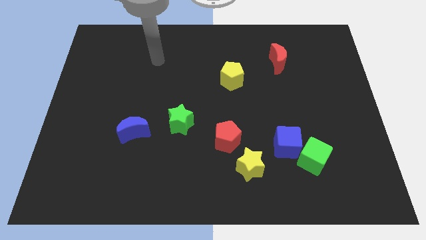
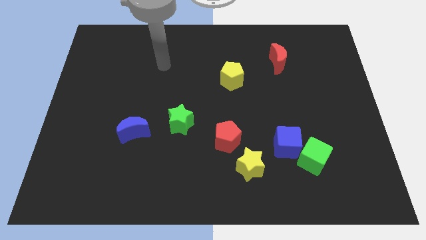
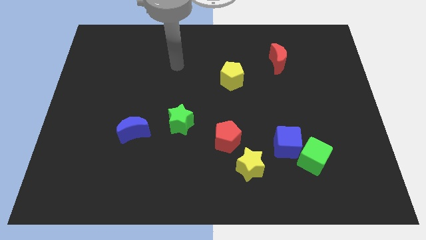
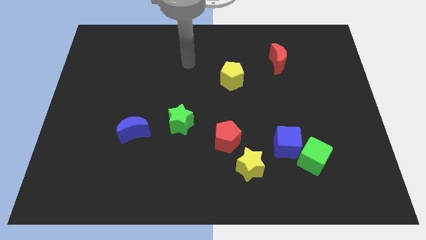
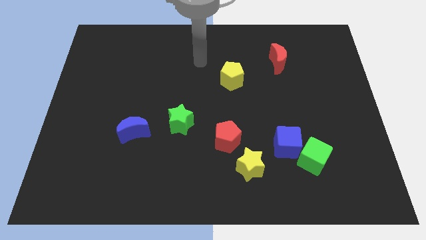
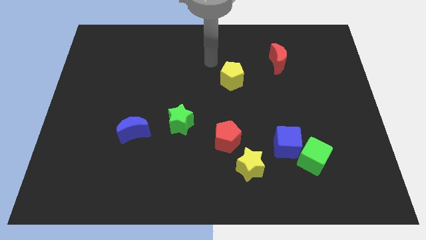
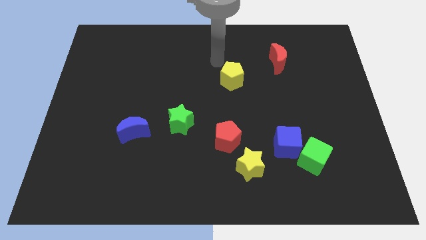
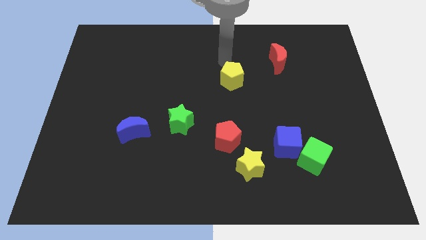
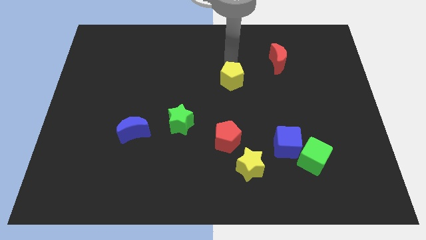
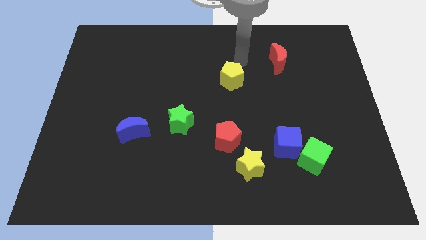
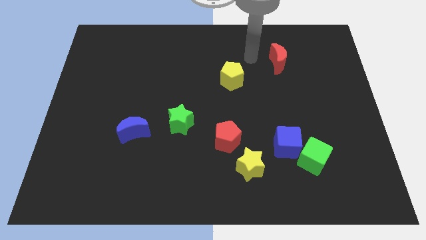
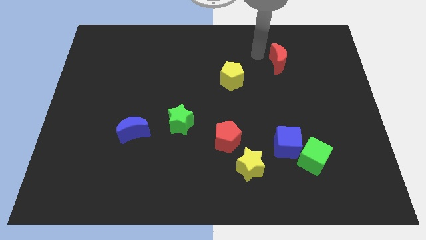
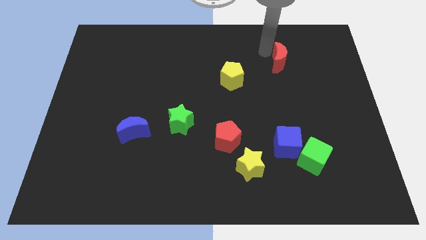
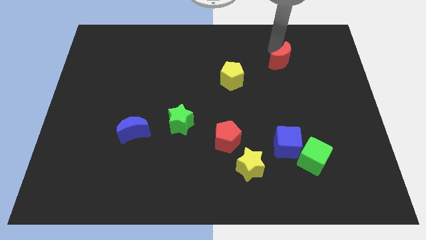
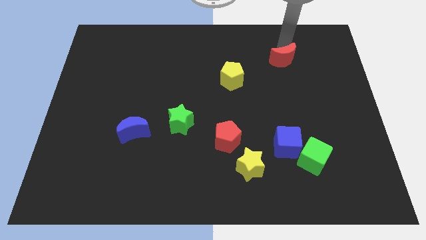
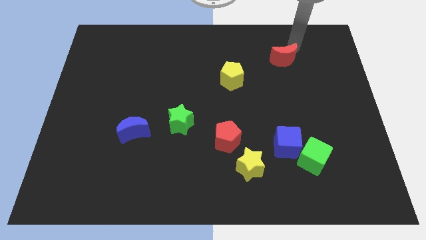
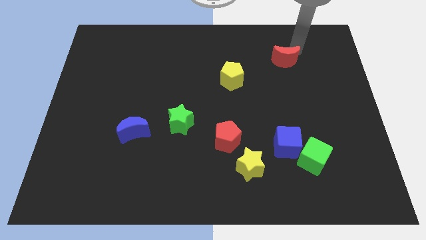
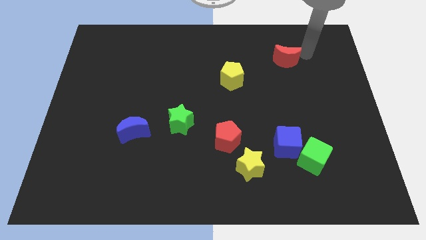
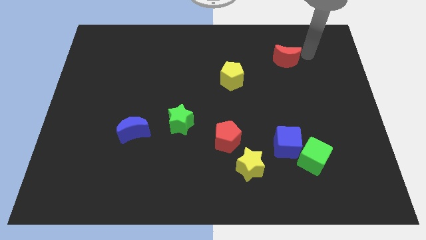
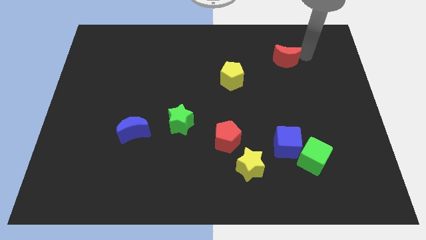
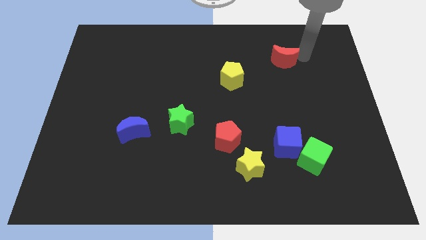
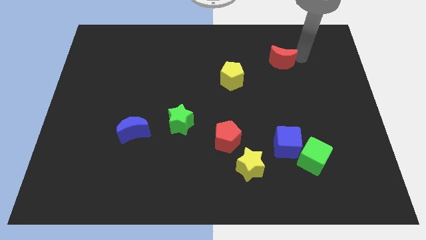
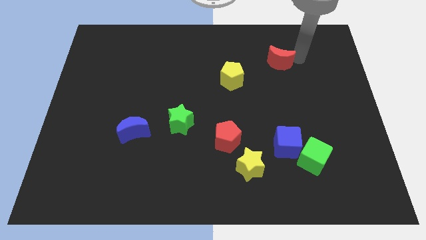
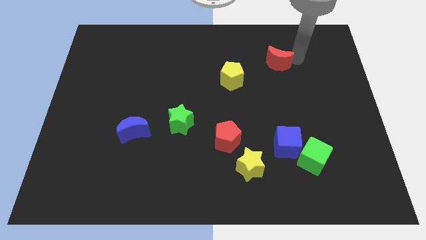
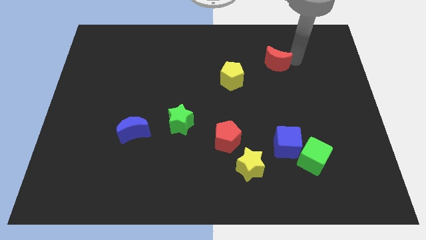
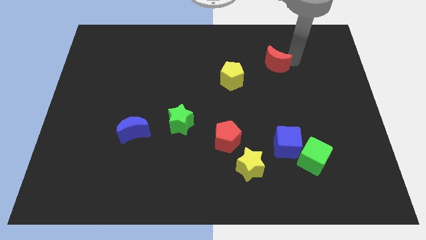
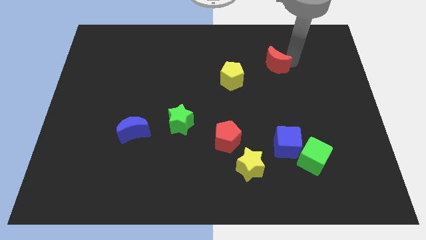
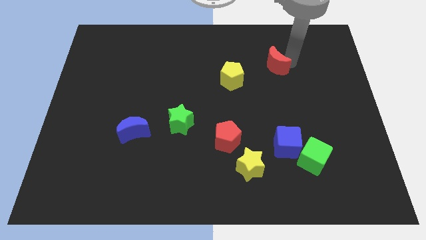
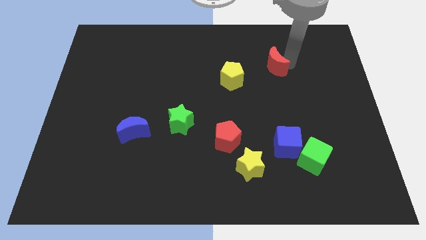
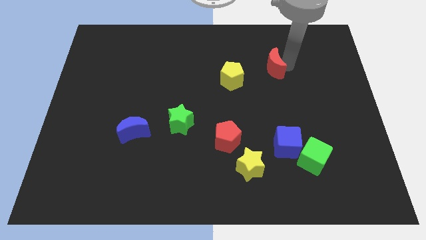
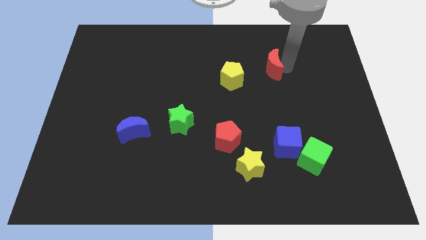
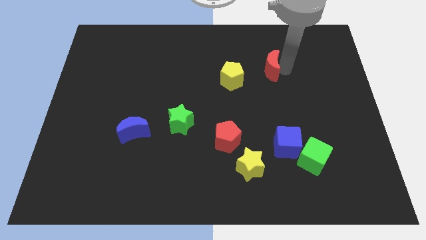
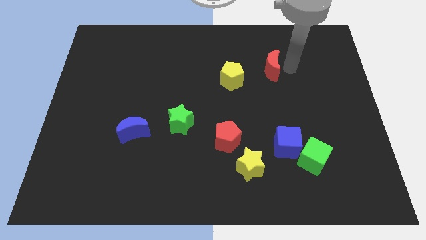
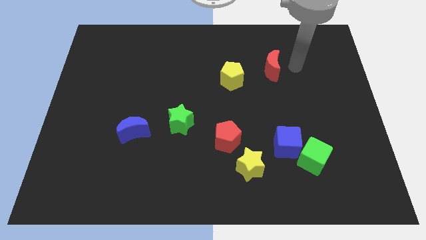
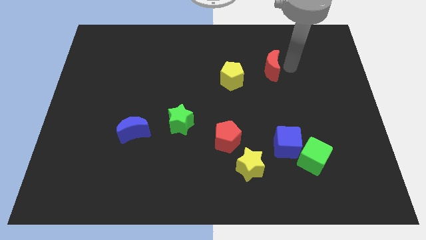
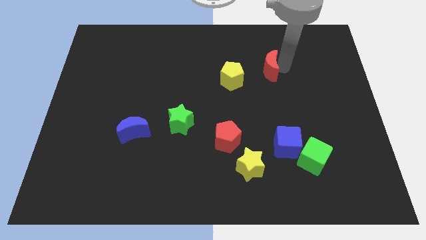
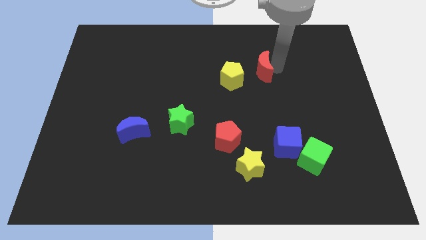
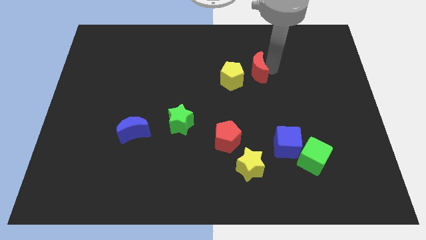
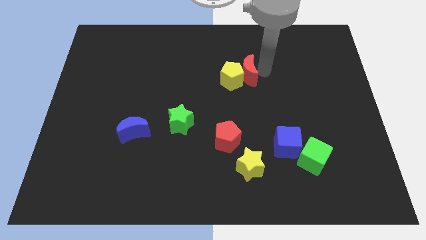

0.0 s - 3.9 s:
slightly push the red moon left

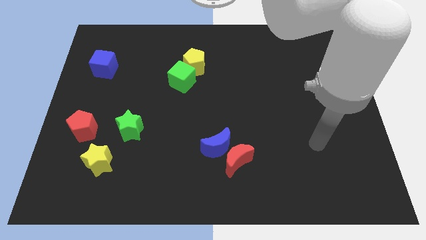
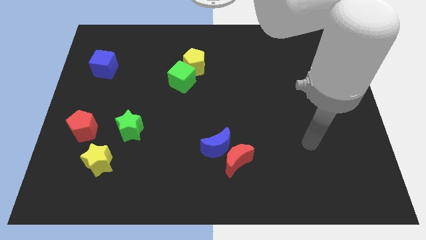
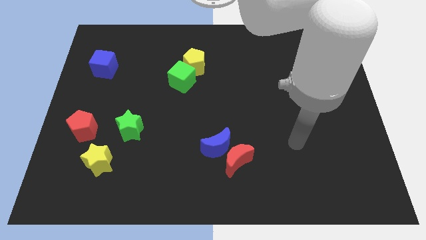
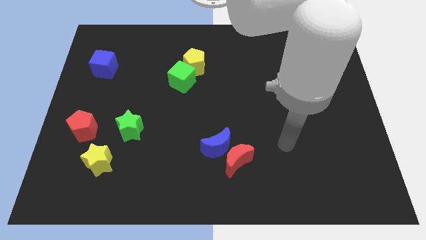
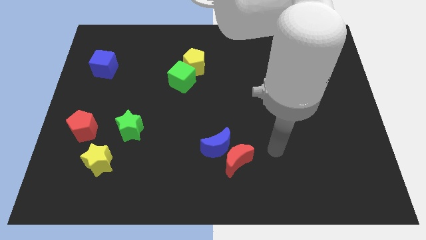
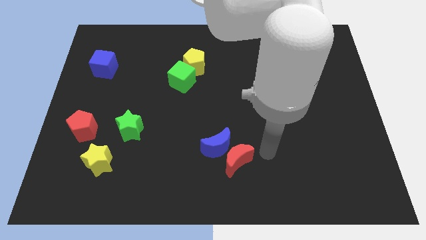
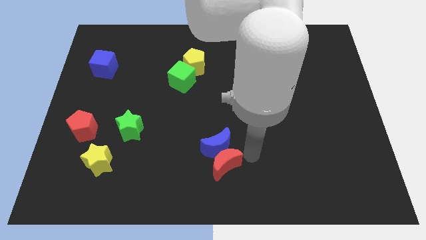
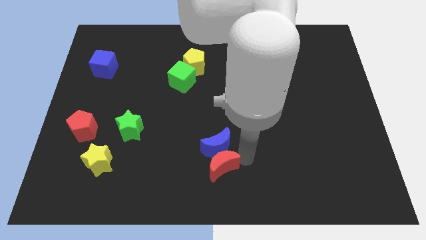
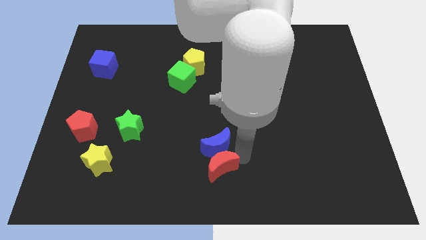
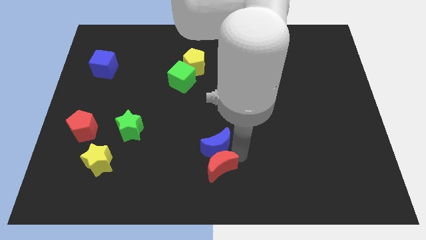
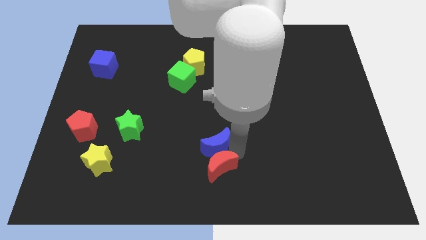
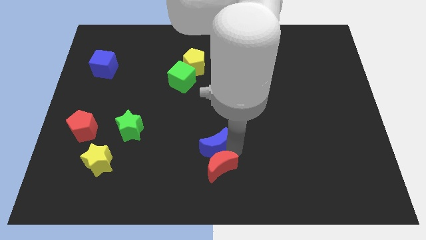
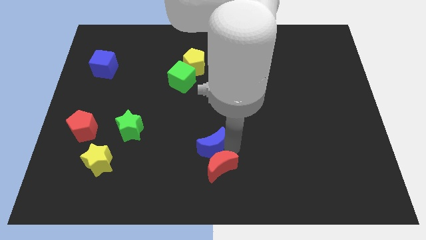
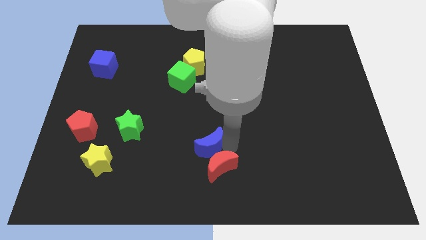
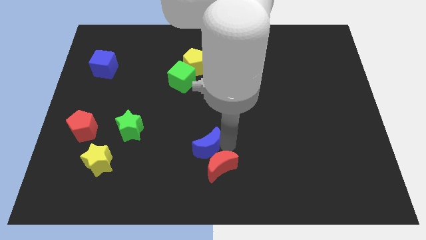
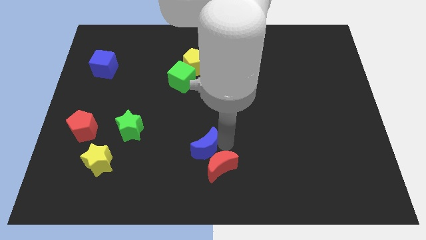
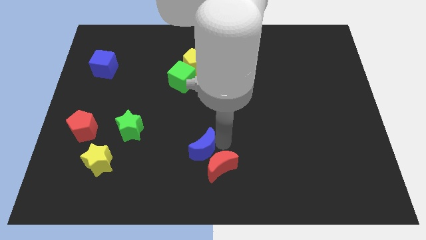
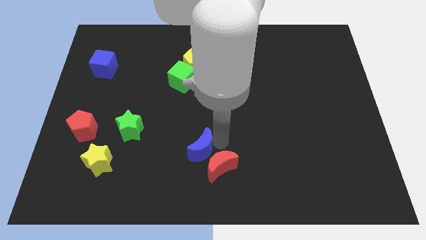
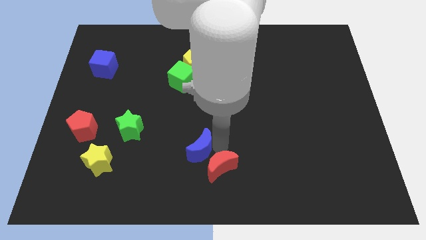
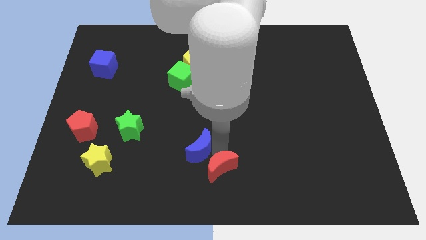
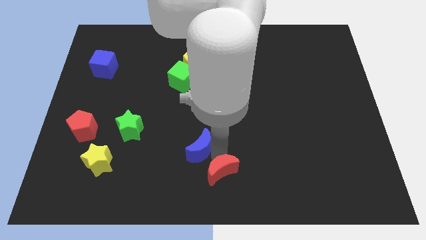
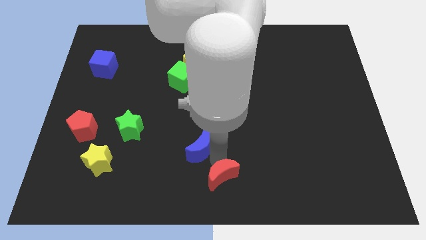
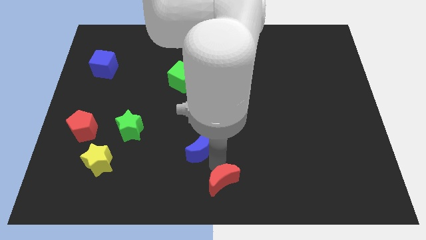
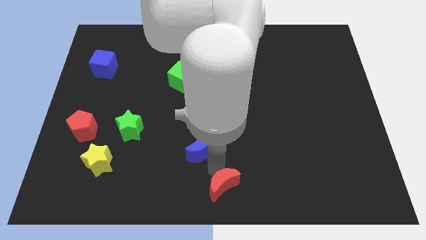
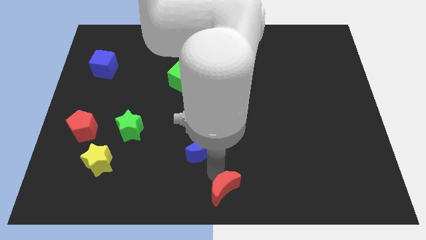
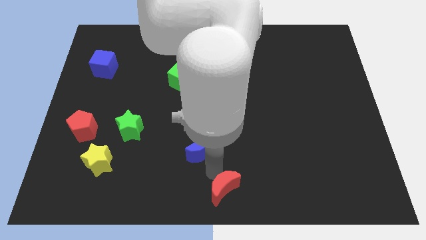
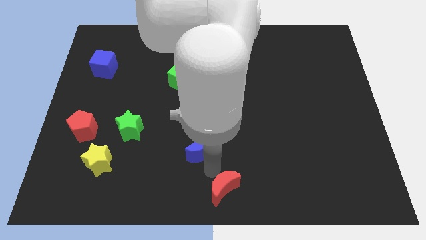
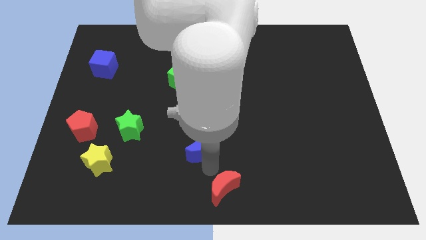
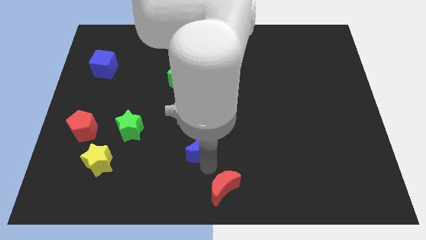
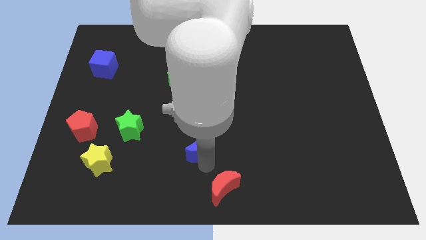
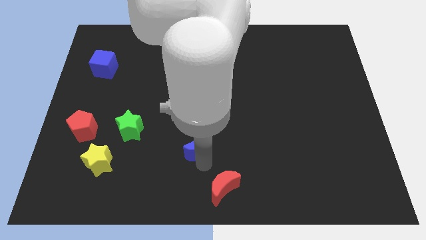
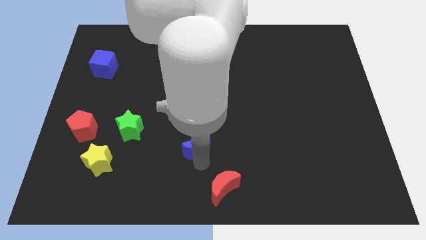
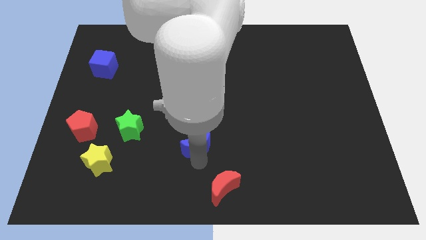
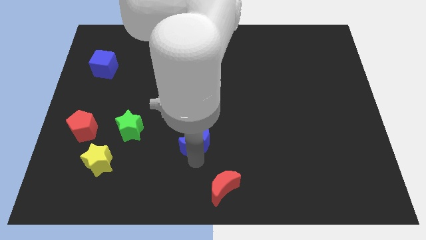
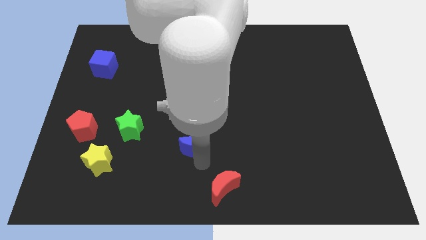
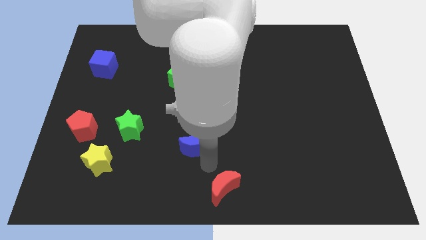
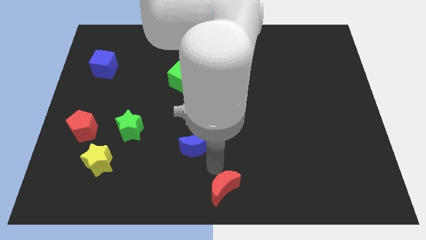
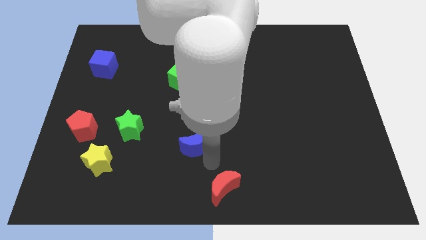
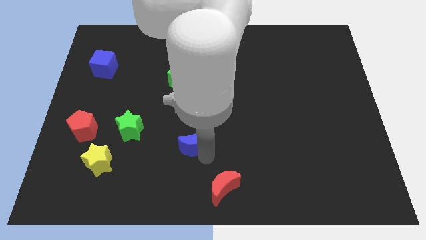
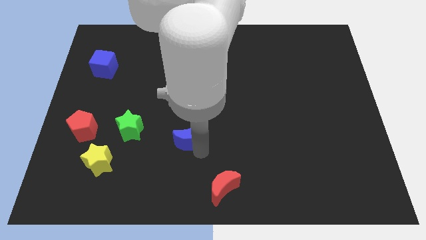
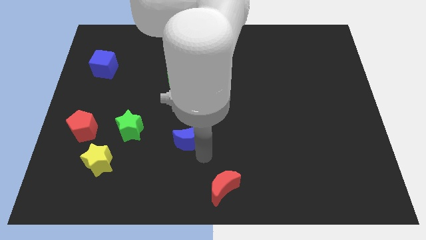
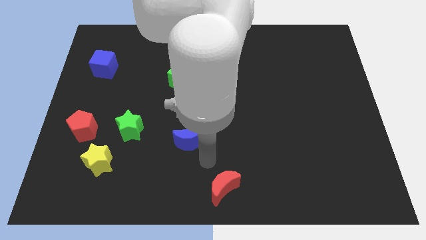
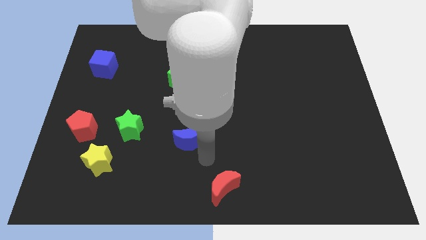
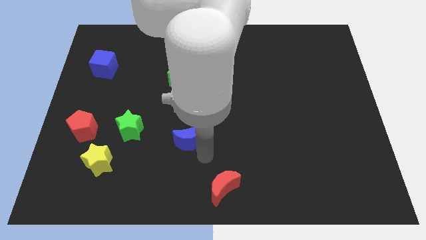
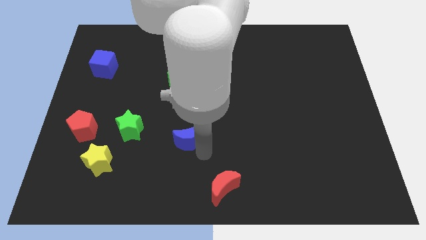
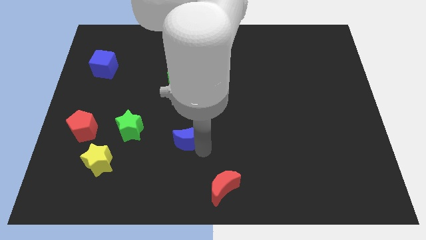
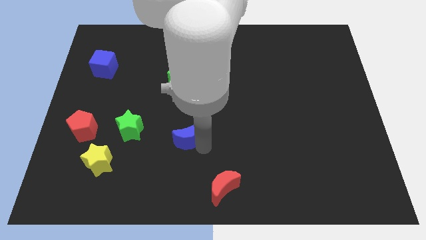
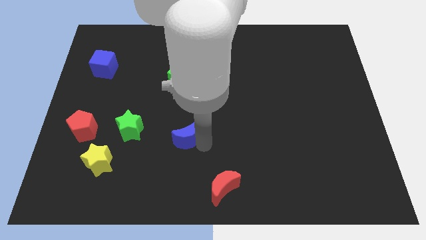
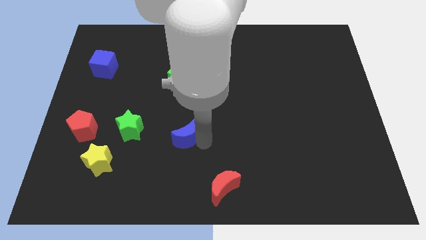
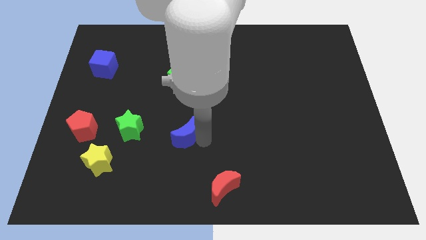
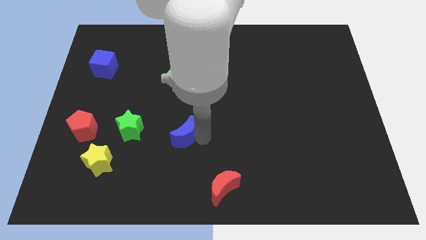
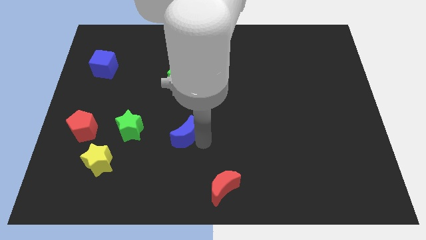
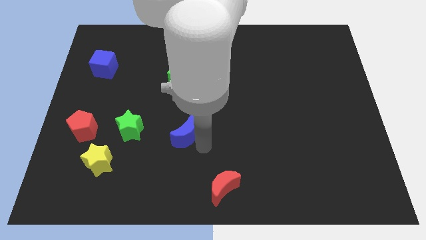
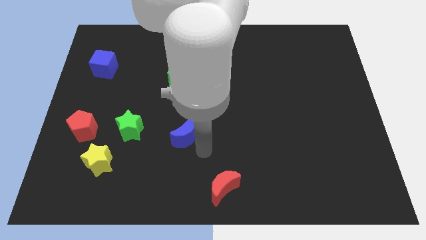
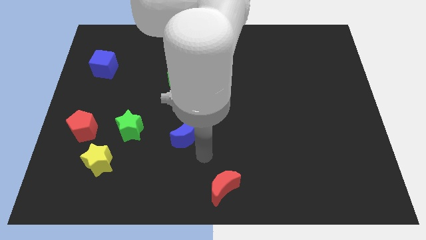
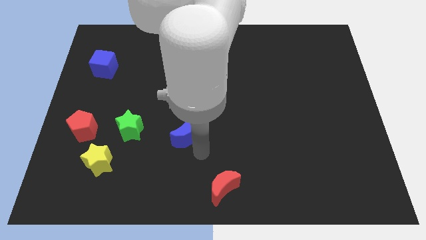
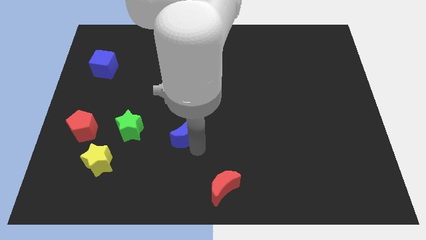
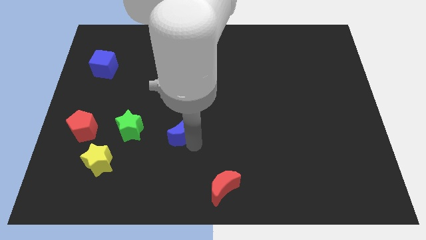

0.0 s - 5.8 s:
slightly move the blue moon upwards and to the left
